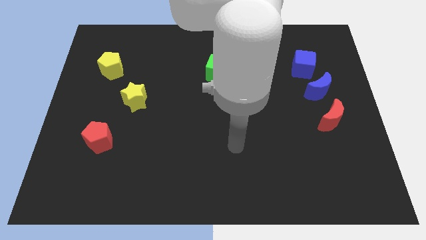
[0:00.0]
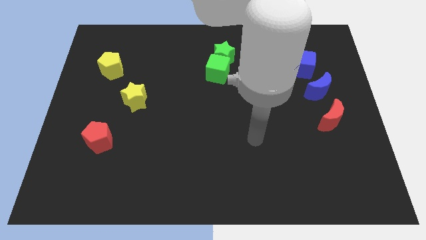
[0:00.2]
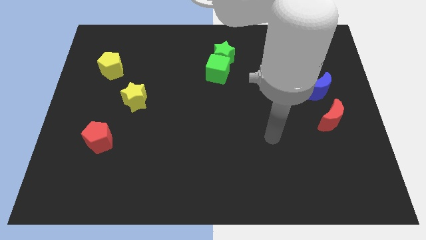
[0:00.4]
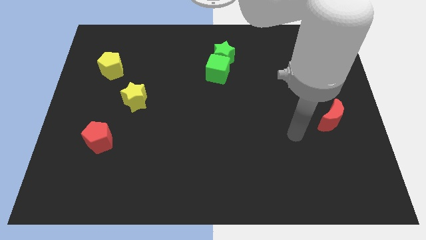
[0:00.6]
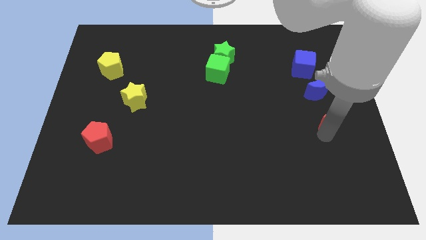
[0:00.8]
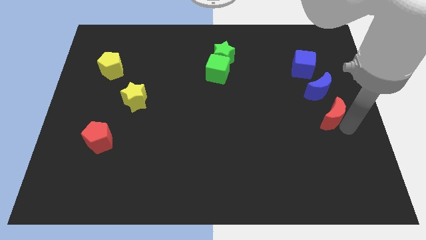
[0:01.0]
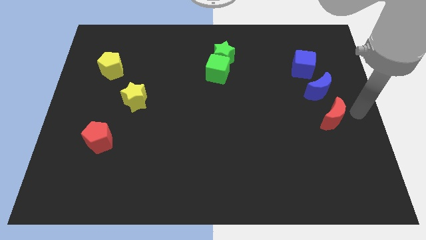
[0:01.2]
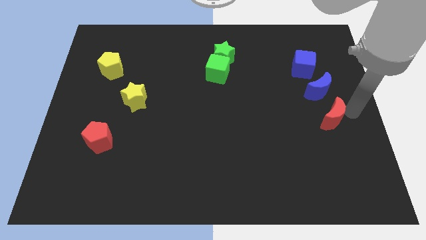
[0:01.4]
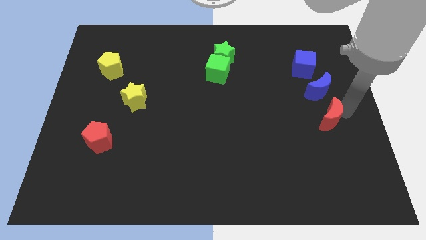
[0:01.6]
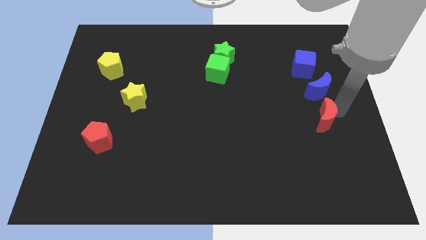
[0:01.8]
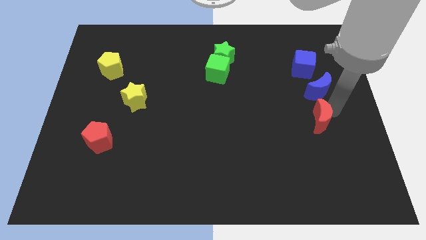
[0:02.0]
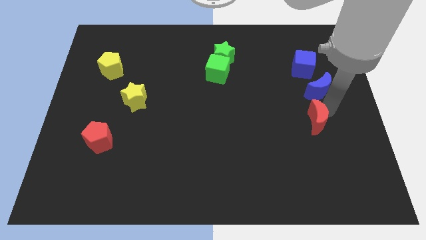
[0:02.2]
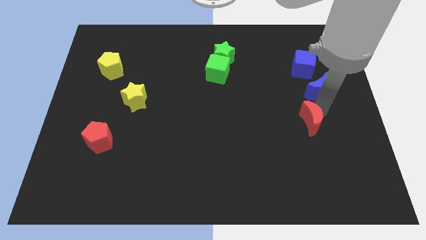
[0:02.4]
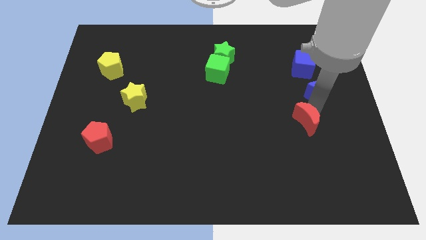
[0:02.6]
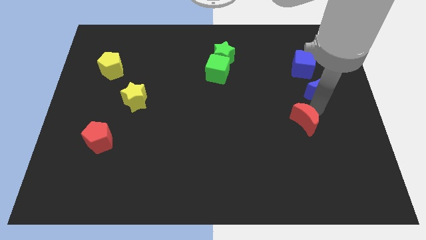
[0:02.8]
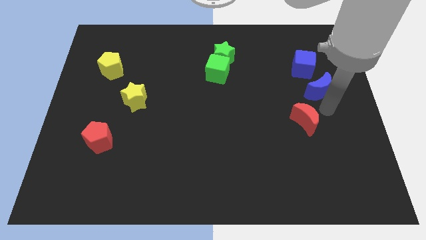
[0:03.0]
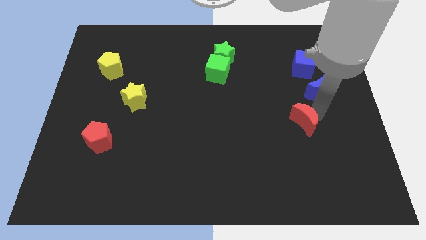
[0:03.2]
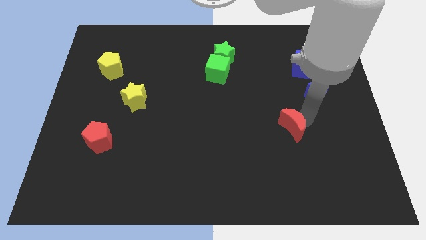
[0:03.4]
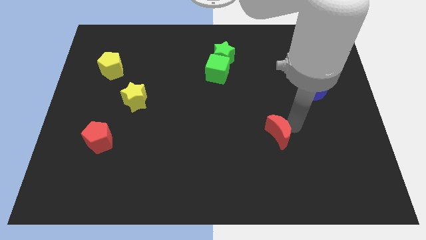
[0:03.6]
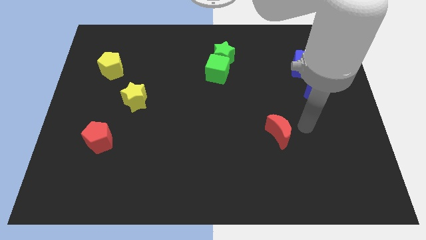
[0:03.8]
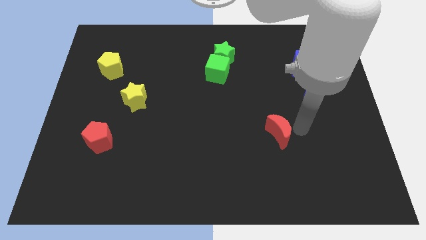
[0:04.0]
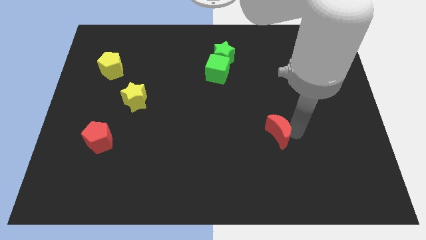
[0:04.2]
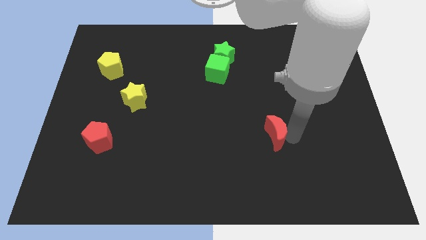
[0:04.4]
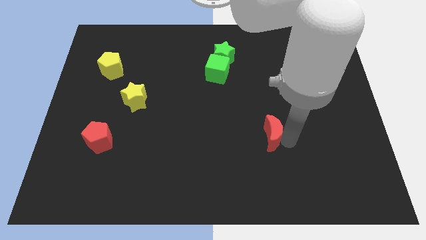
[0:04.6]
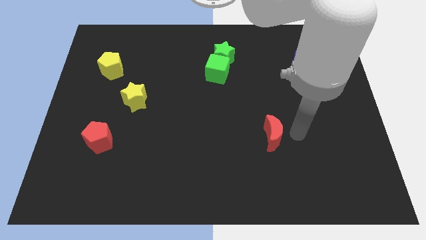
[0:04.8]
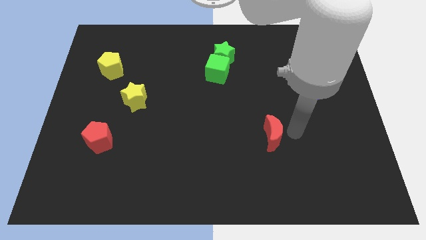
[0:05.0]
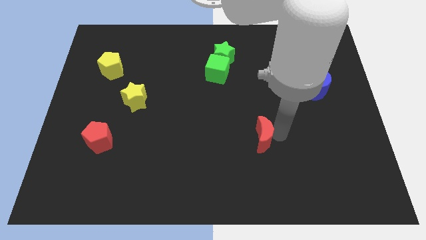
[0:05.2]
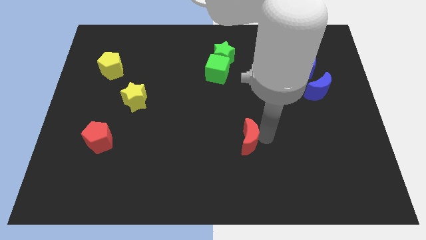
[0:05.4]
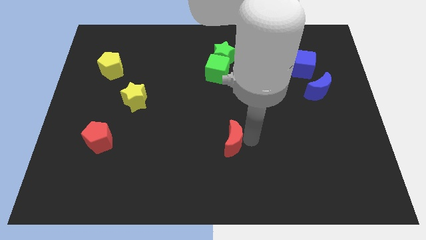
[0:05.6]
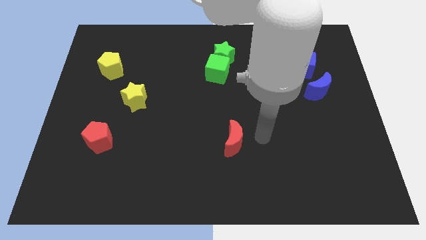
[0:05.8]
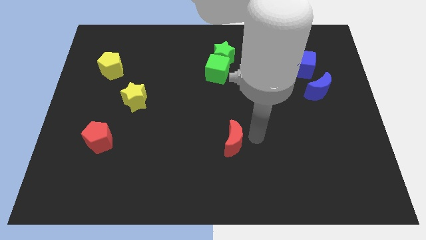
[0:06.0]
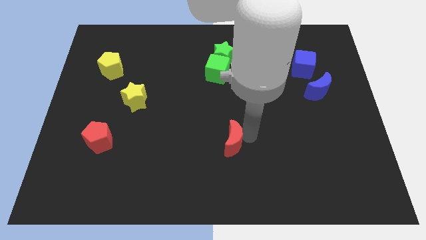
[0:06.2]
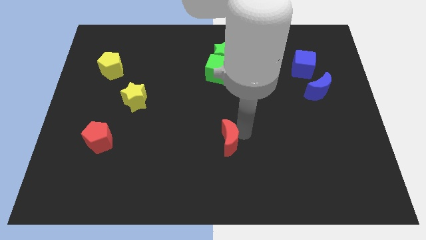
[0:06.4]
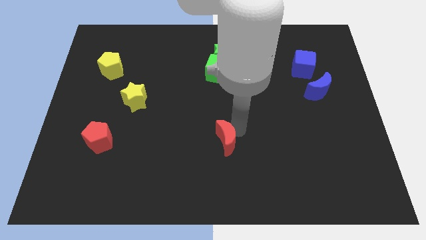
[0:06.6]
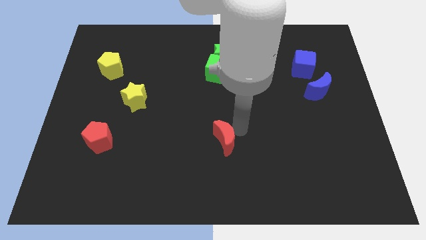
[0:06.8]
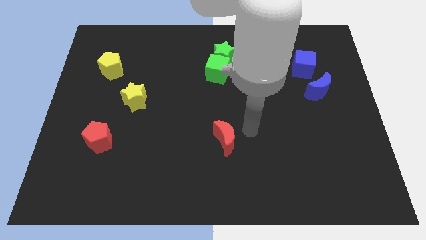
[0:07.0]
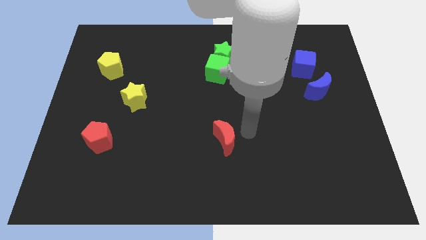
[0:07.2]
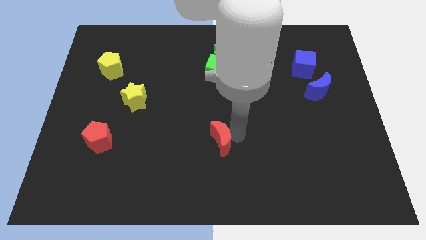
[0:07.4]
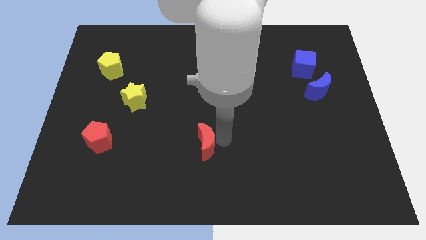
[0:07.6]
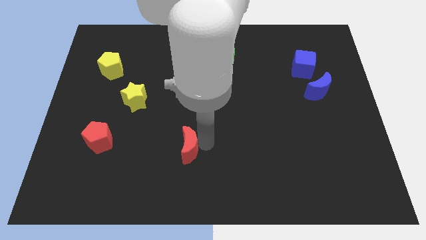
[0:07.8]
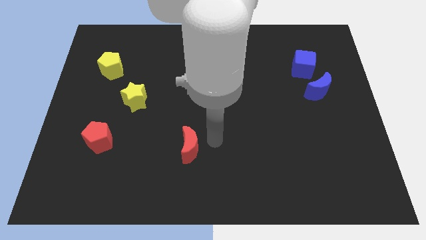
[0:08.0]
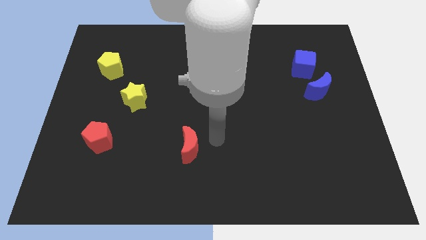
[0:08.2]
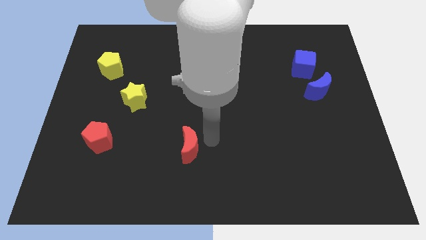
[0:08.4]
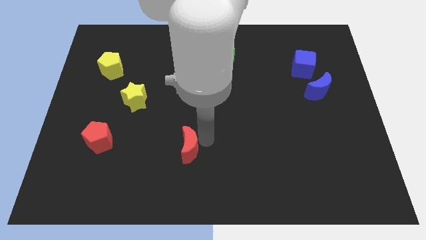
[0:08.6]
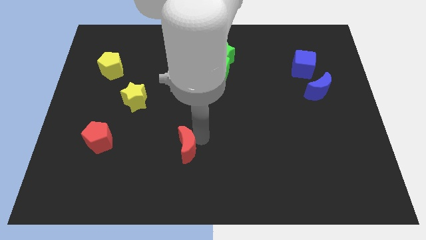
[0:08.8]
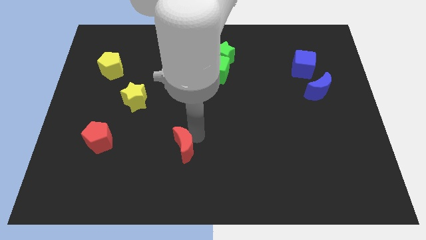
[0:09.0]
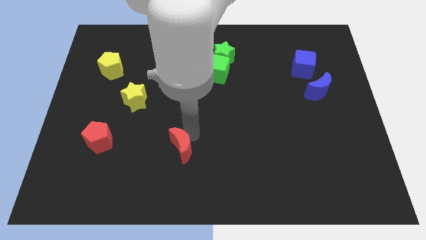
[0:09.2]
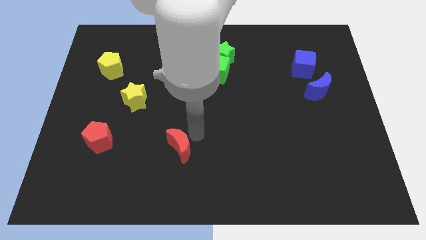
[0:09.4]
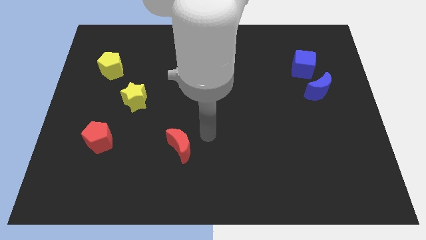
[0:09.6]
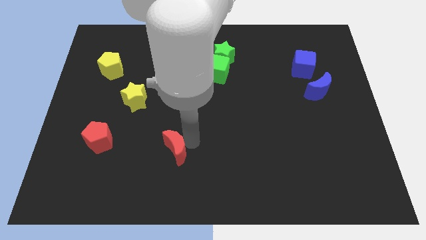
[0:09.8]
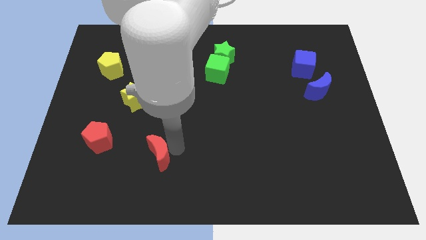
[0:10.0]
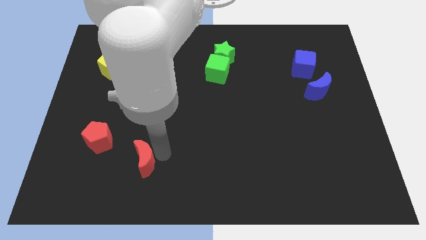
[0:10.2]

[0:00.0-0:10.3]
push the red moon to the bottom right side of the red pentagon

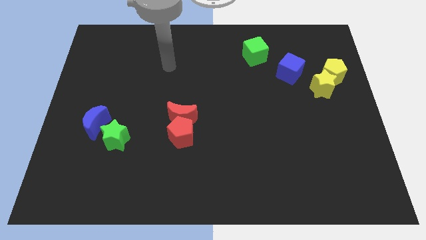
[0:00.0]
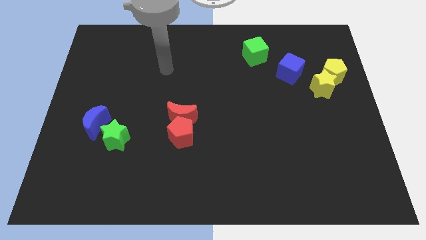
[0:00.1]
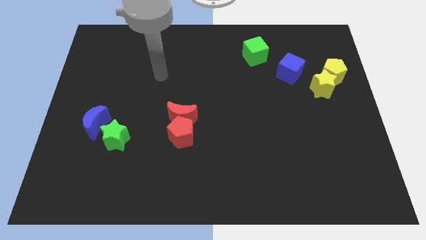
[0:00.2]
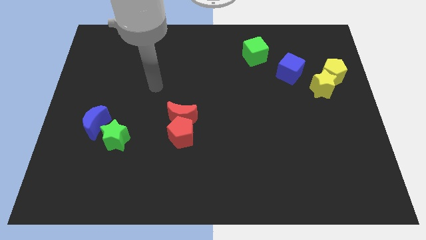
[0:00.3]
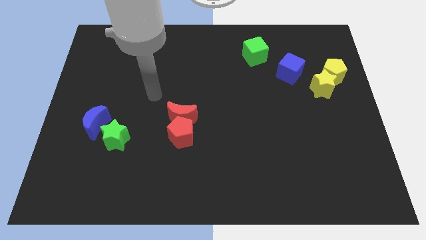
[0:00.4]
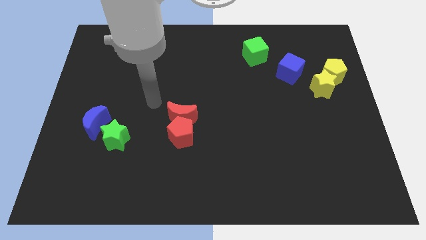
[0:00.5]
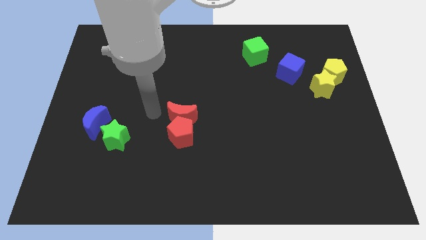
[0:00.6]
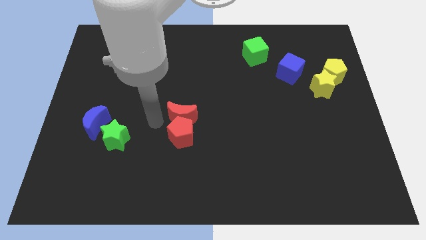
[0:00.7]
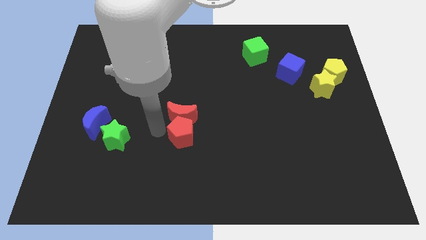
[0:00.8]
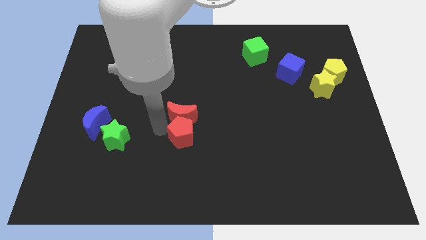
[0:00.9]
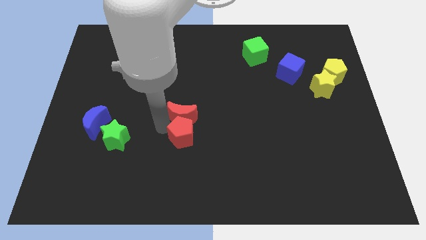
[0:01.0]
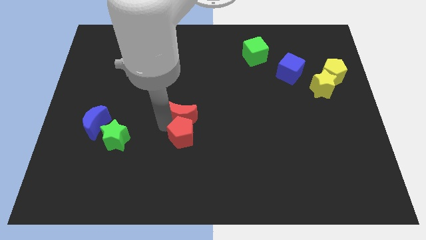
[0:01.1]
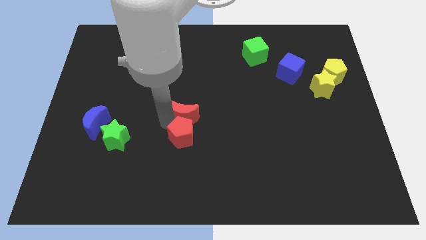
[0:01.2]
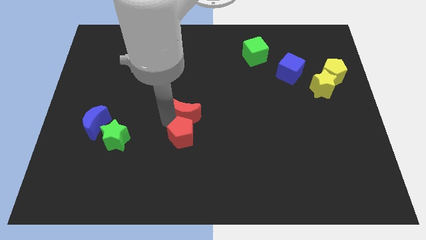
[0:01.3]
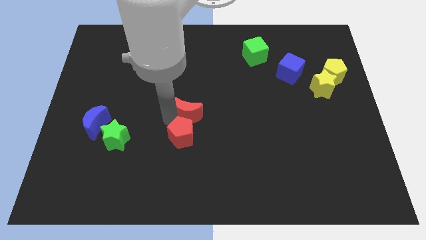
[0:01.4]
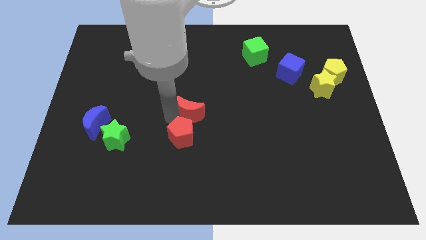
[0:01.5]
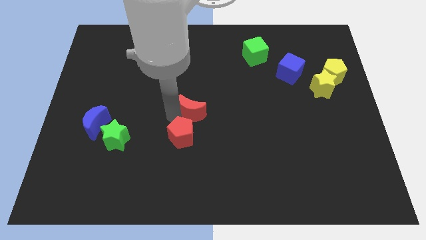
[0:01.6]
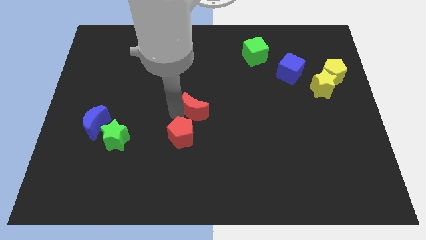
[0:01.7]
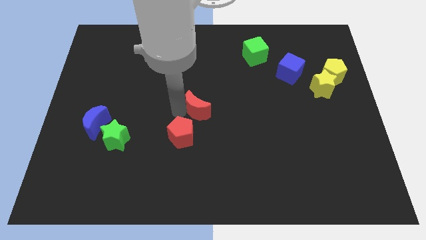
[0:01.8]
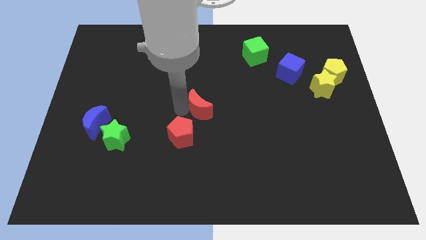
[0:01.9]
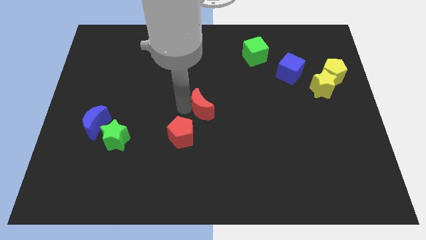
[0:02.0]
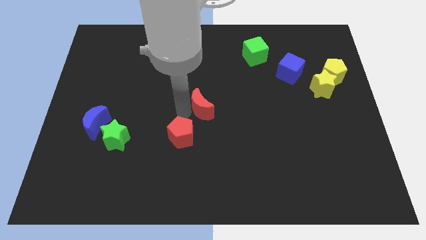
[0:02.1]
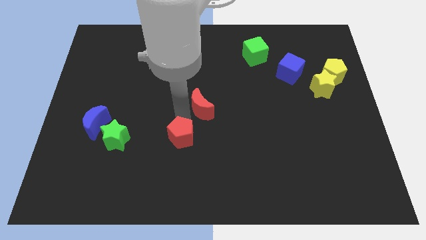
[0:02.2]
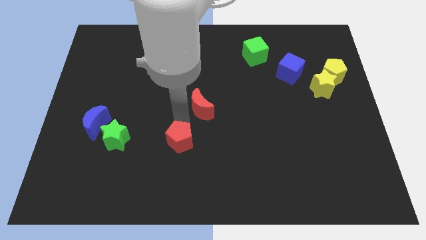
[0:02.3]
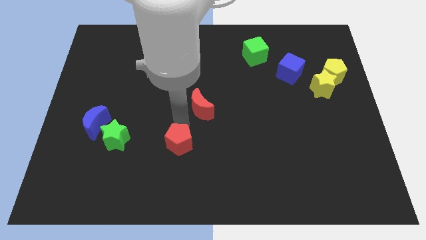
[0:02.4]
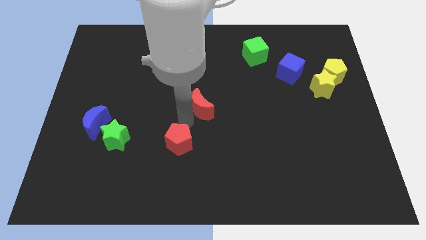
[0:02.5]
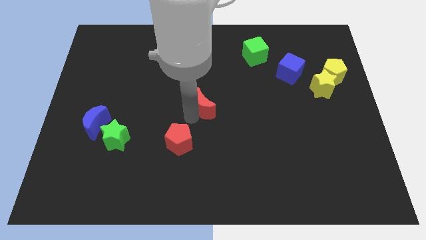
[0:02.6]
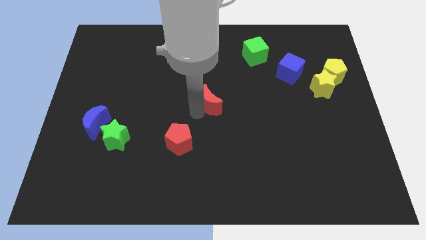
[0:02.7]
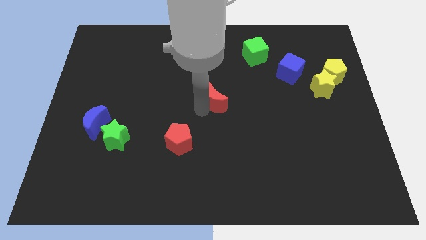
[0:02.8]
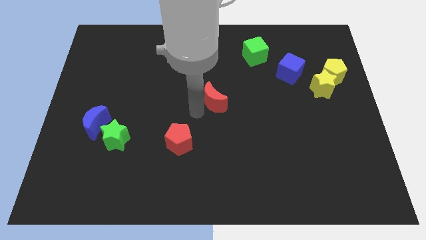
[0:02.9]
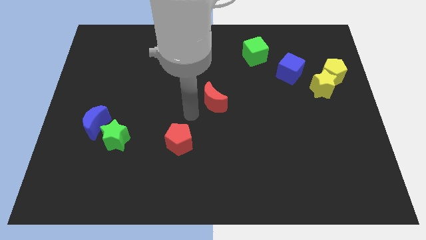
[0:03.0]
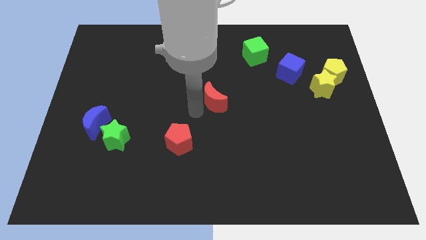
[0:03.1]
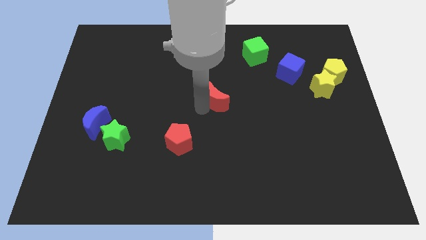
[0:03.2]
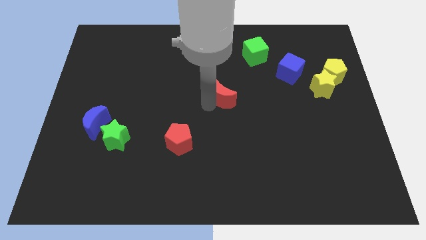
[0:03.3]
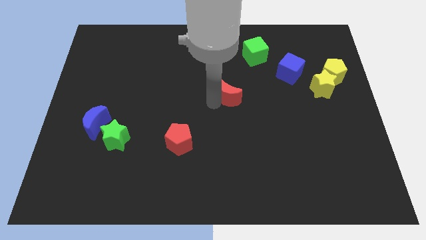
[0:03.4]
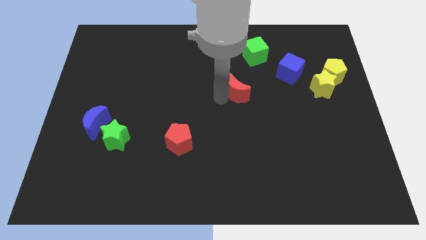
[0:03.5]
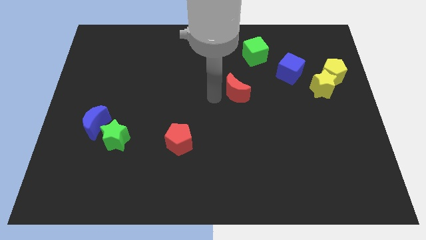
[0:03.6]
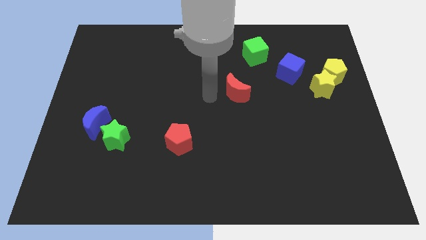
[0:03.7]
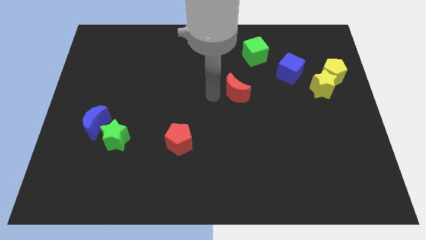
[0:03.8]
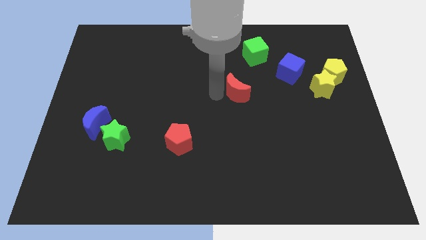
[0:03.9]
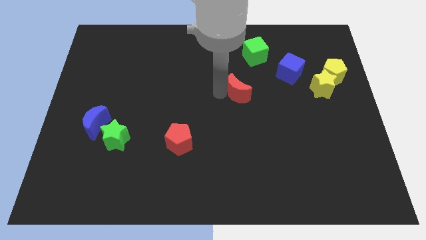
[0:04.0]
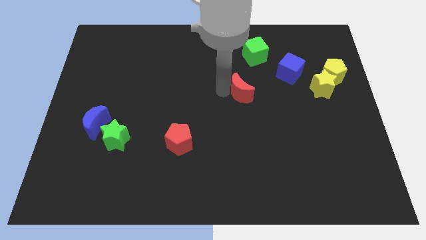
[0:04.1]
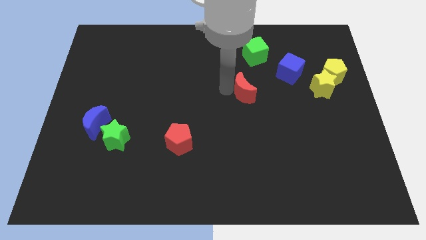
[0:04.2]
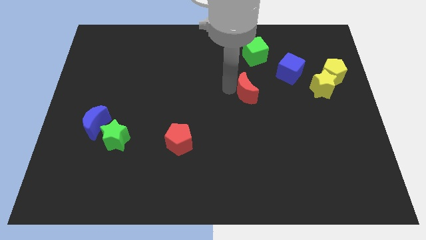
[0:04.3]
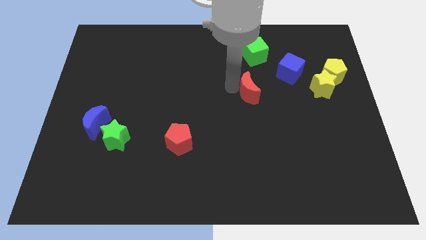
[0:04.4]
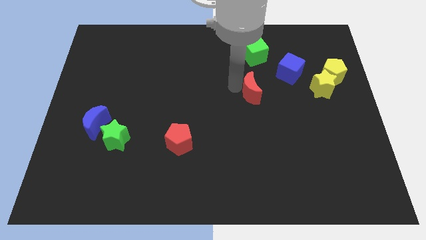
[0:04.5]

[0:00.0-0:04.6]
slide the red moon diagonally down and to the left of the blue cube
